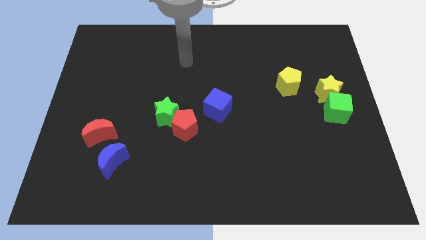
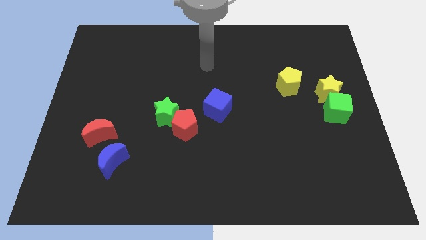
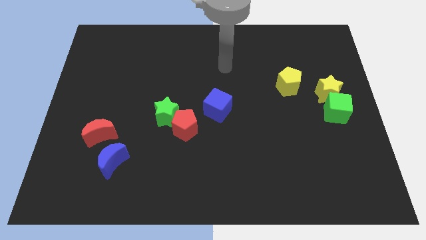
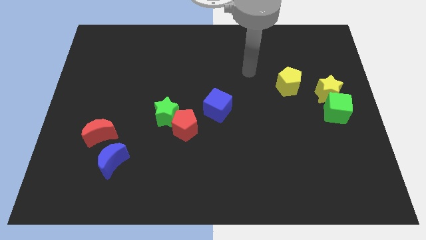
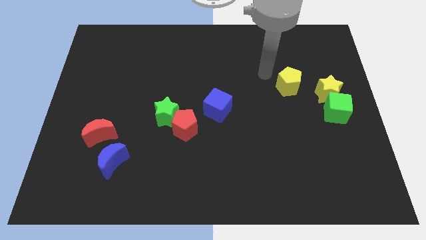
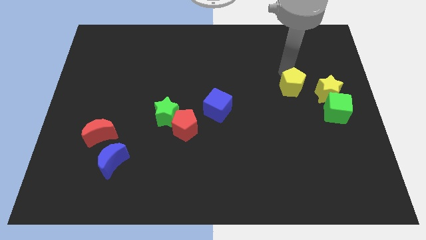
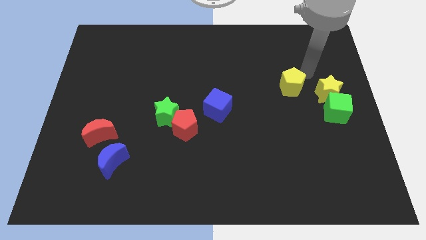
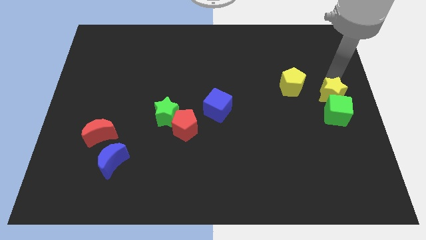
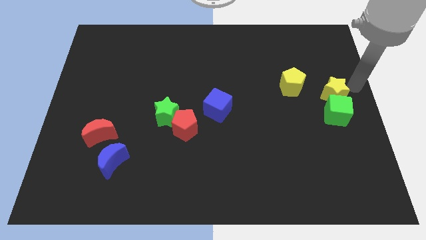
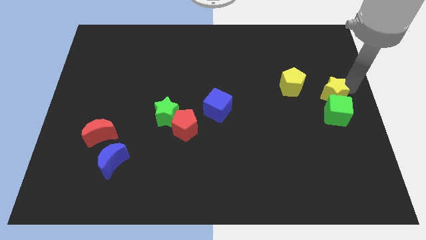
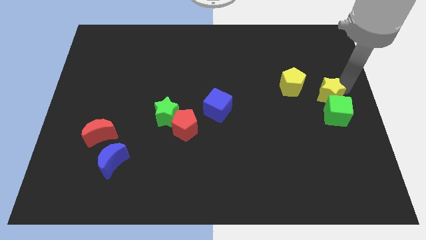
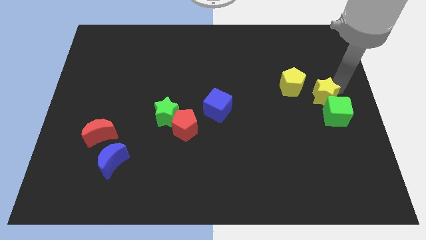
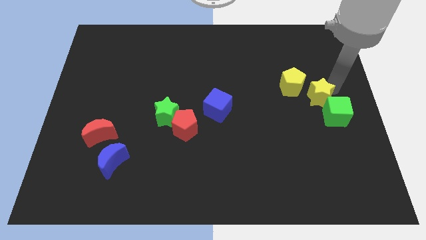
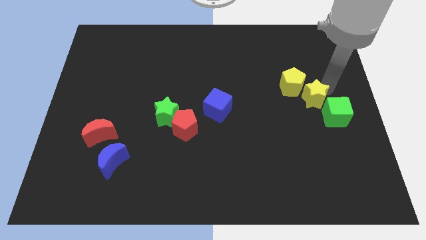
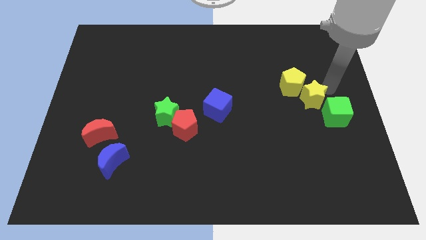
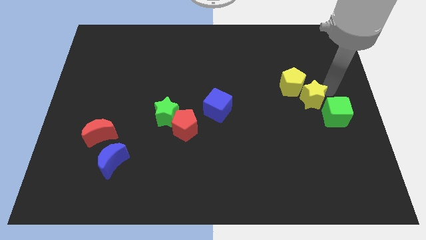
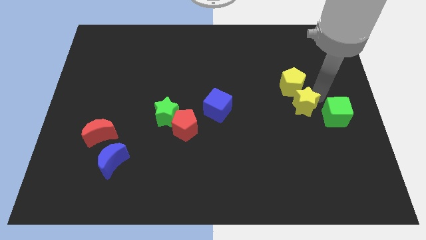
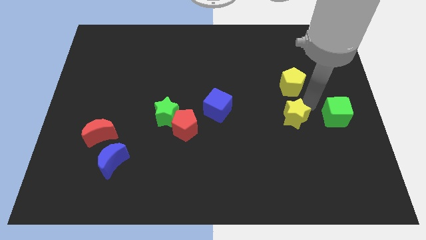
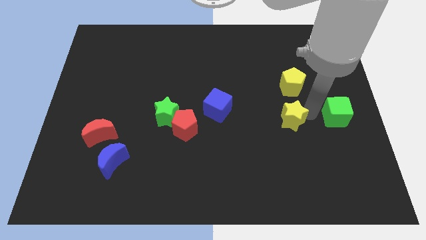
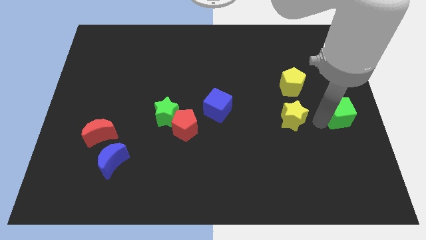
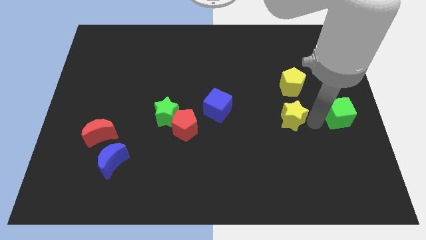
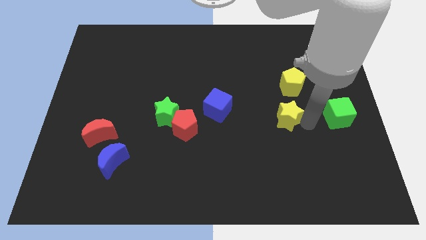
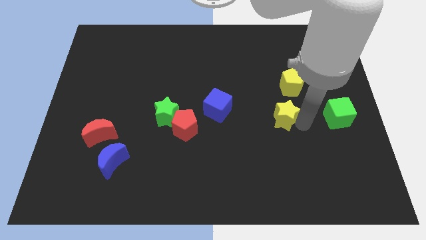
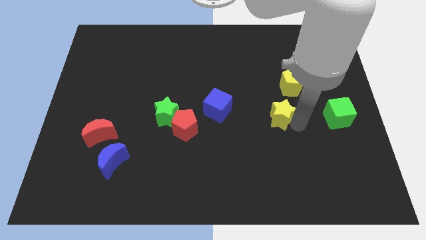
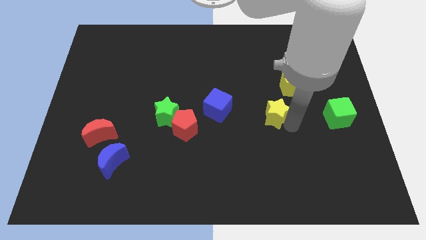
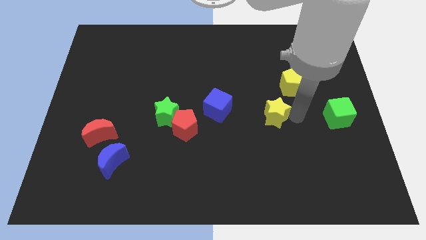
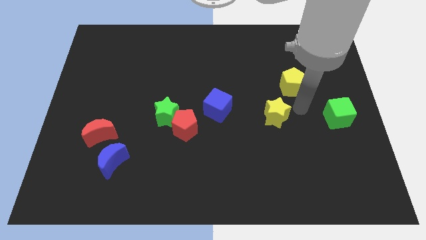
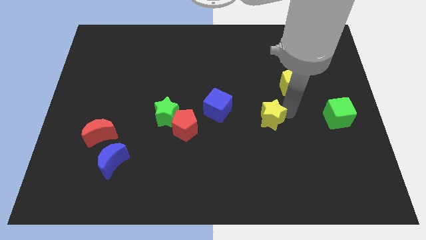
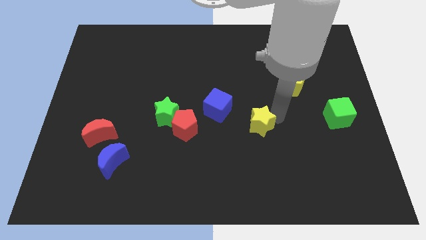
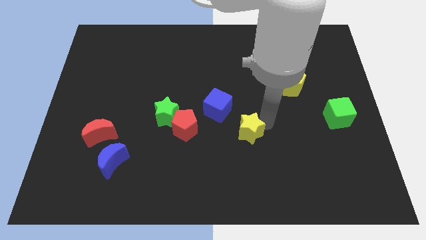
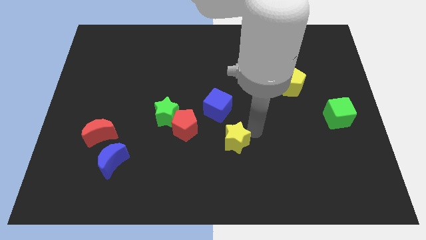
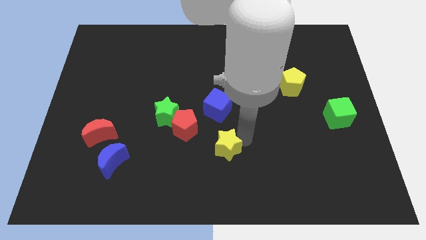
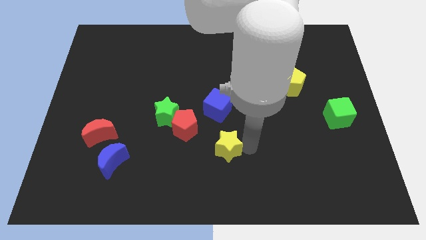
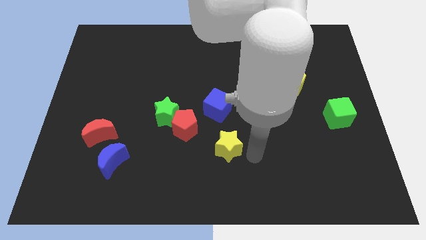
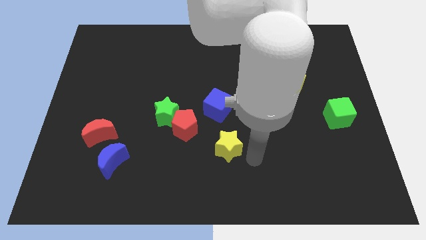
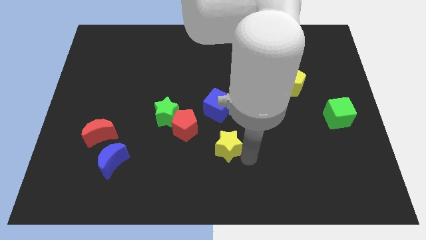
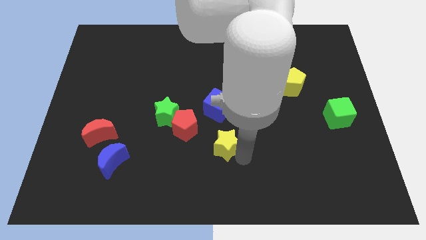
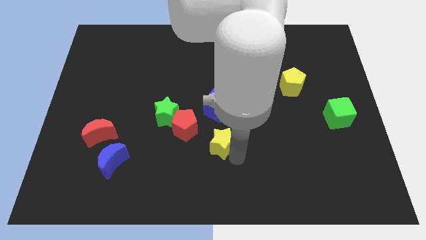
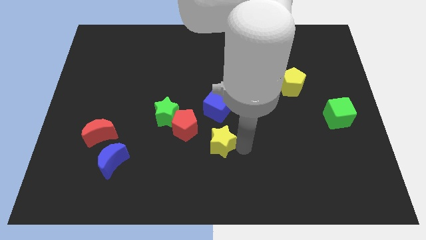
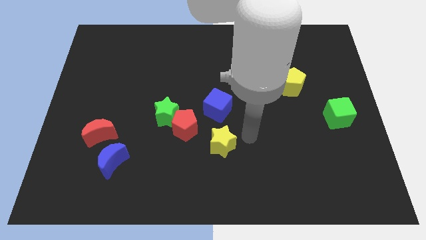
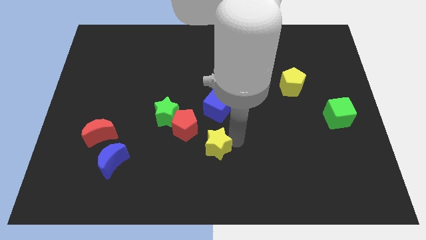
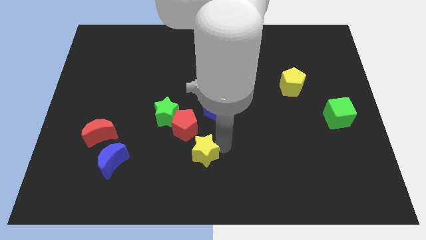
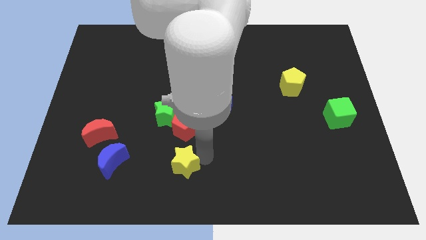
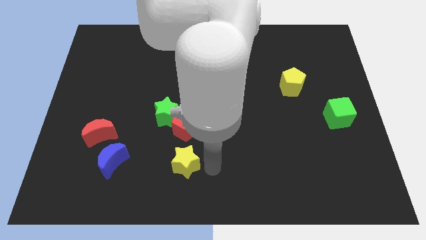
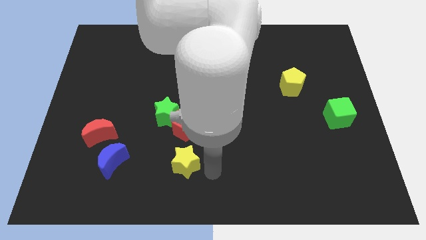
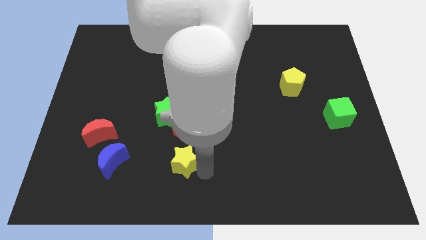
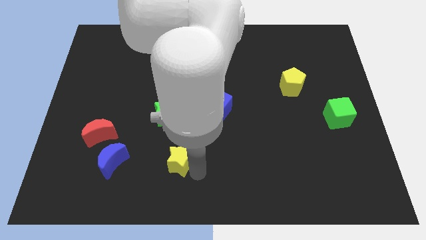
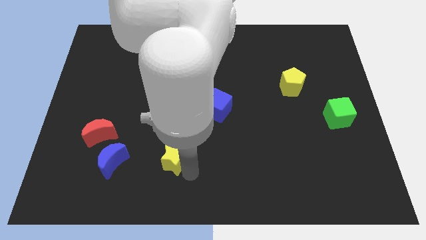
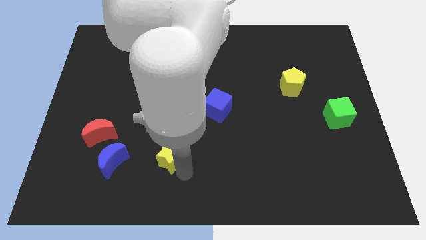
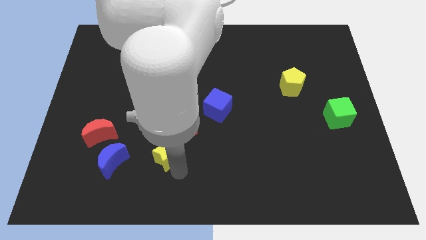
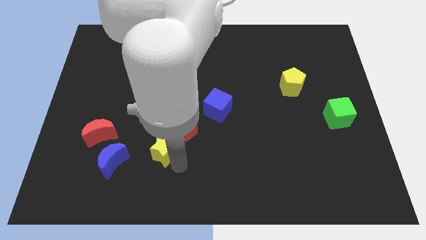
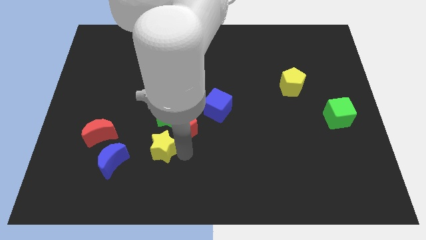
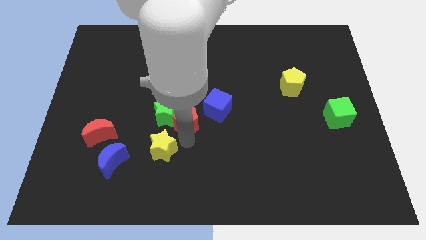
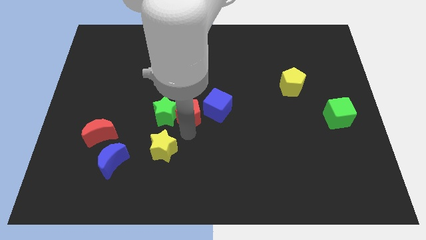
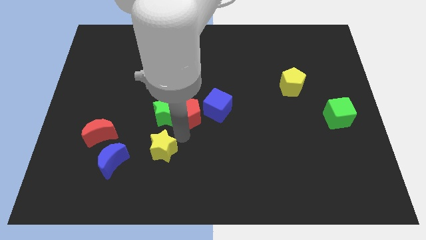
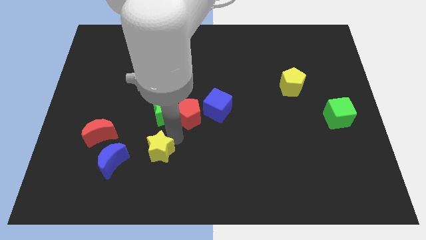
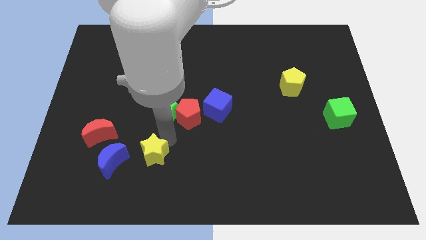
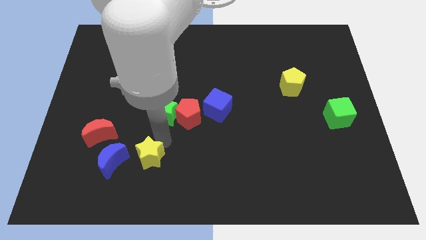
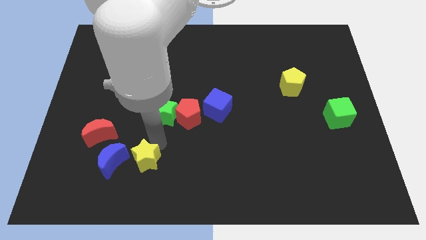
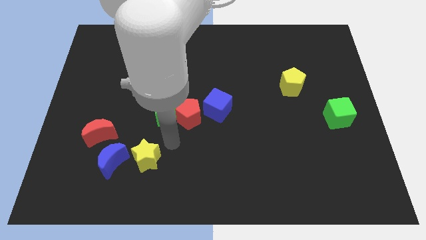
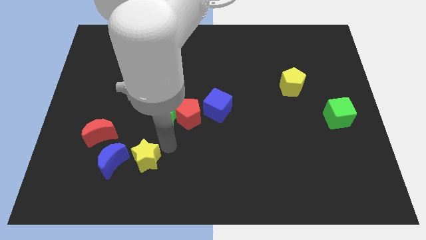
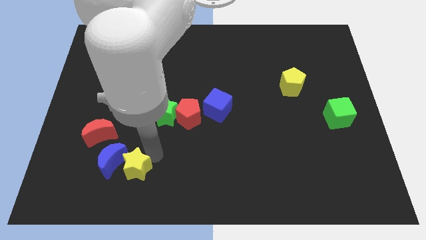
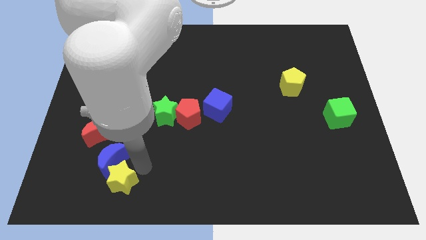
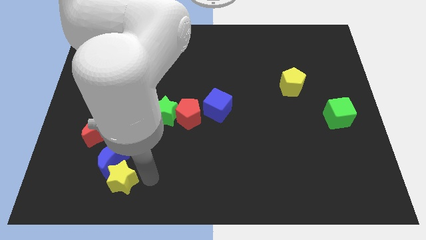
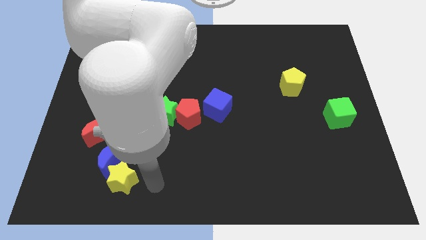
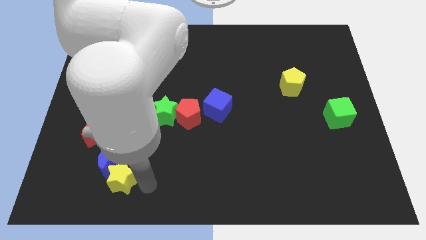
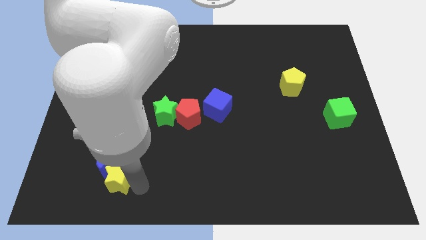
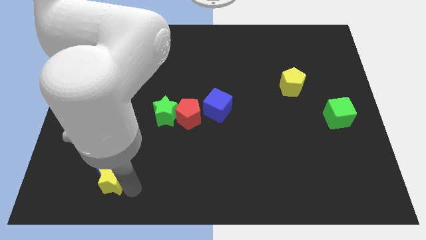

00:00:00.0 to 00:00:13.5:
put the yellow star below the red moon

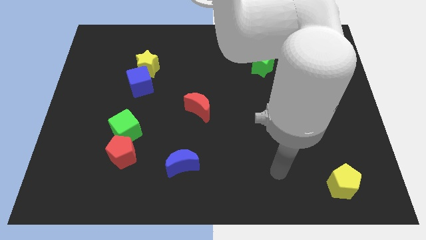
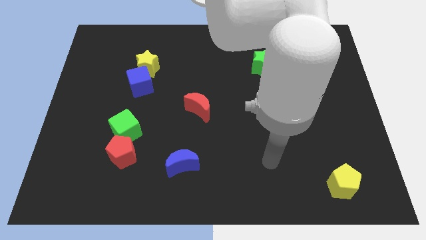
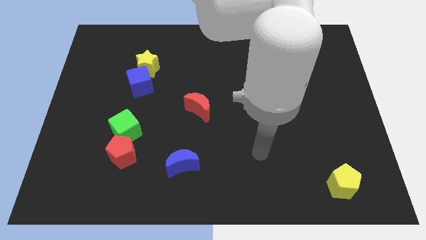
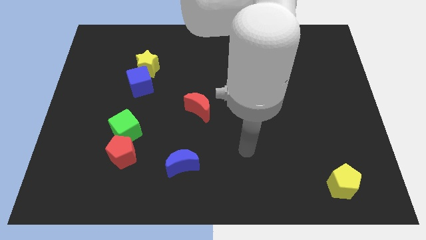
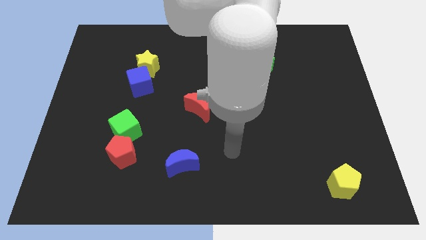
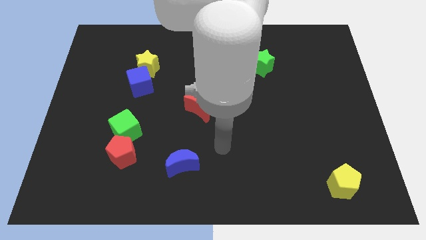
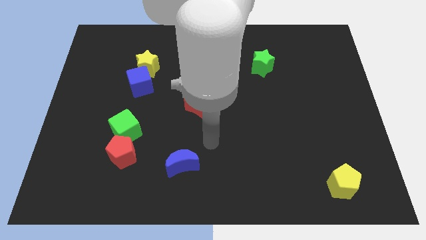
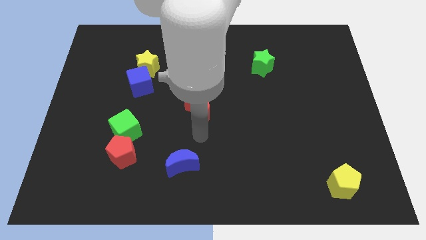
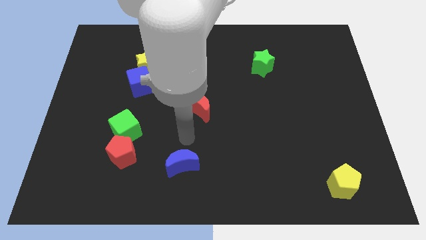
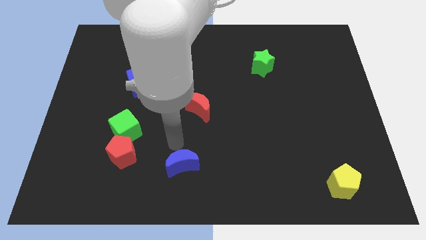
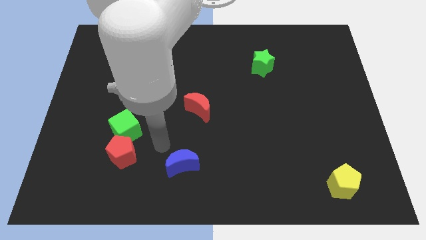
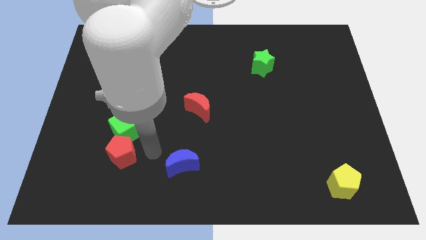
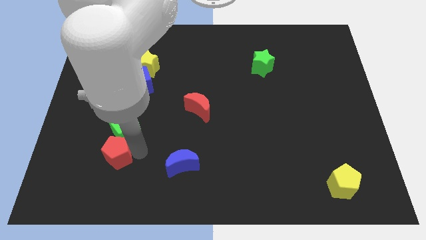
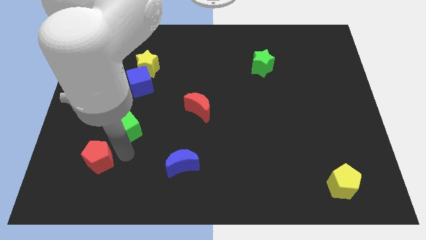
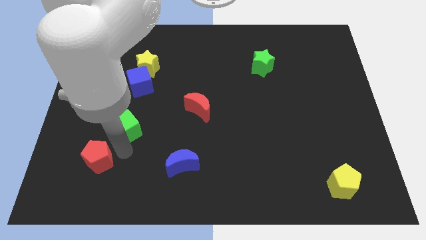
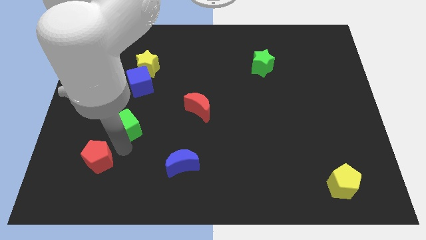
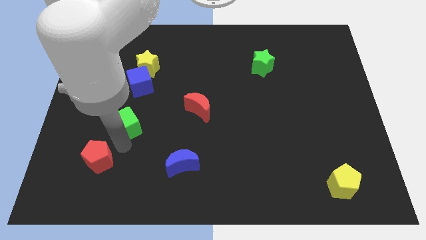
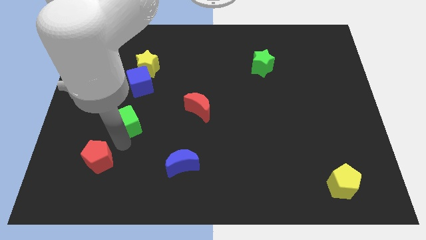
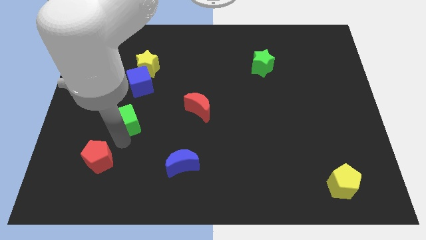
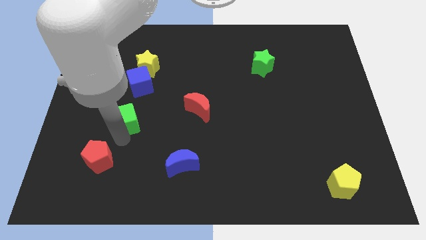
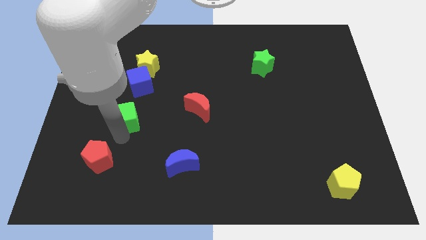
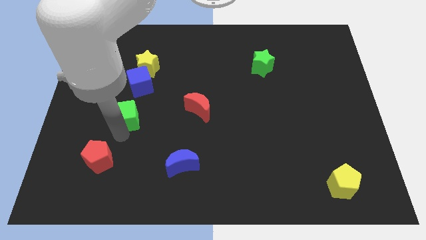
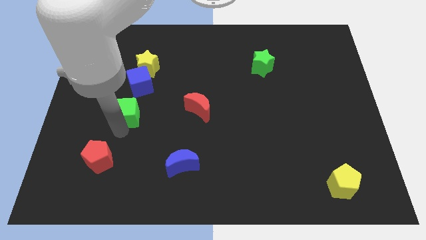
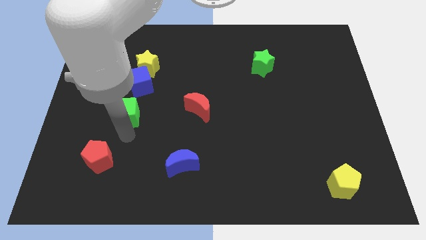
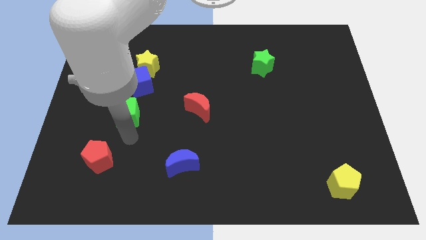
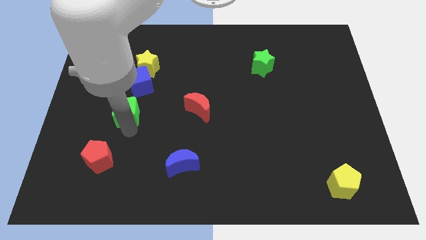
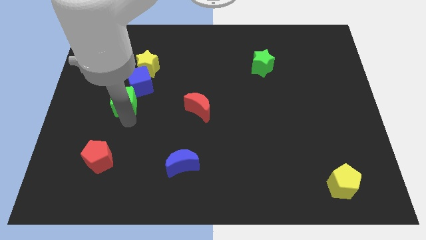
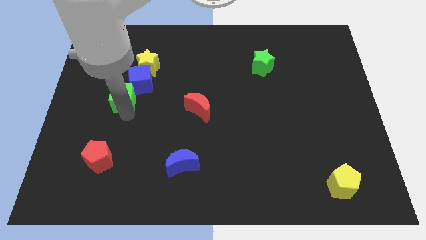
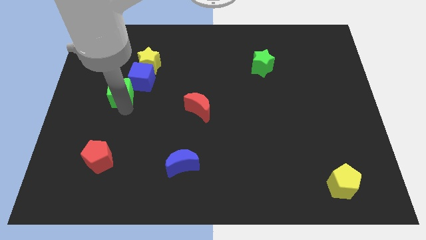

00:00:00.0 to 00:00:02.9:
slide the green cube to the bottom left of the yellow star
